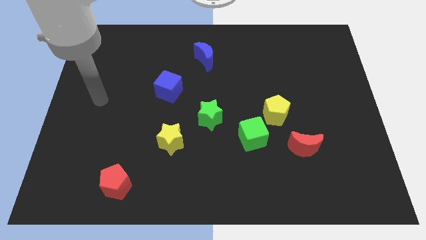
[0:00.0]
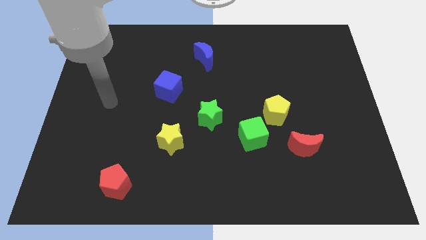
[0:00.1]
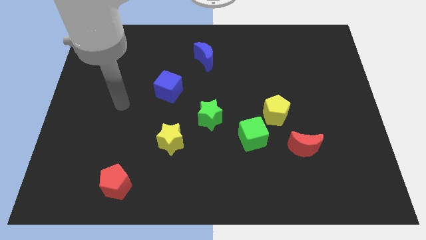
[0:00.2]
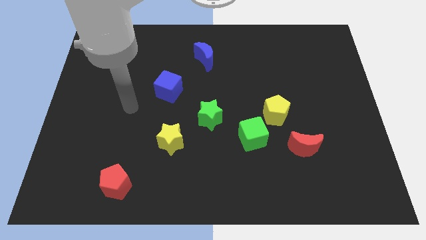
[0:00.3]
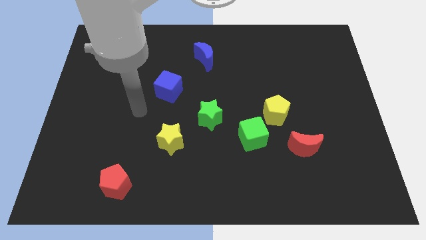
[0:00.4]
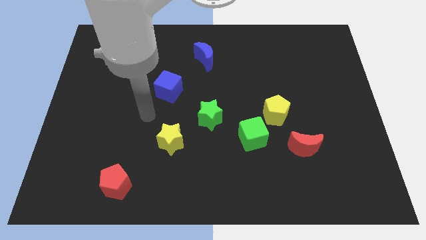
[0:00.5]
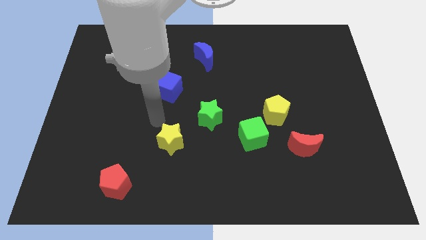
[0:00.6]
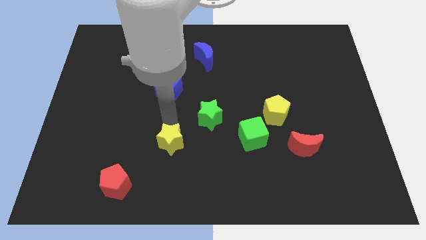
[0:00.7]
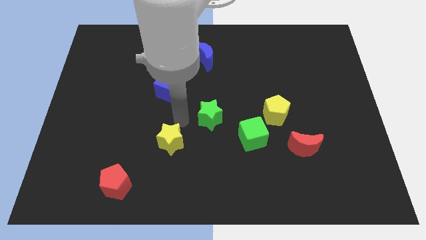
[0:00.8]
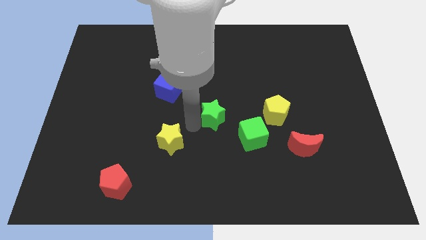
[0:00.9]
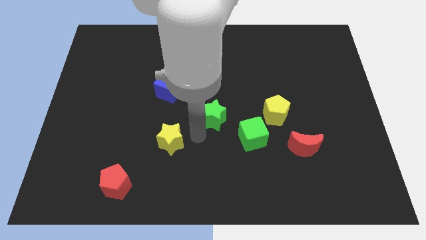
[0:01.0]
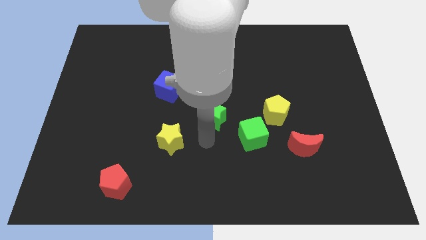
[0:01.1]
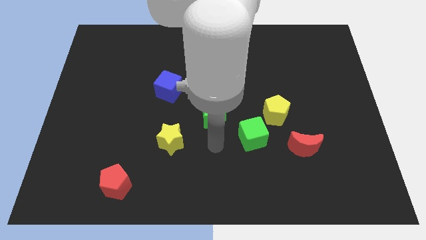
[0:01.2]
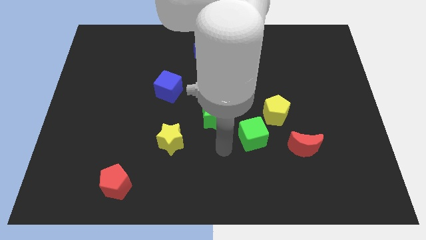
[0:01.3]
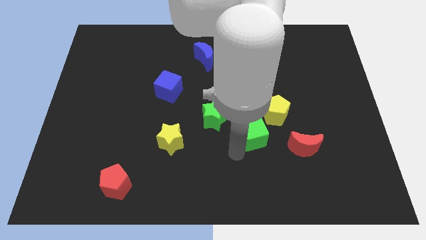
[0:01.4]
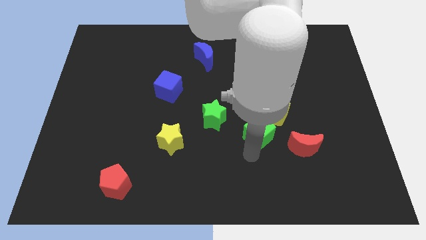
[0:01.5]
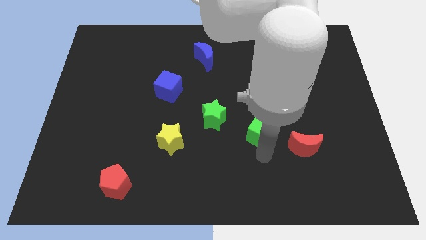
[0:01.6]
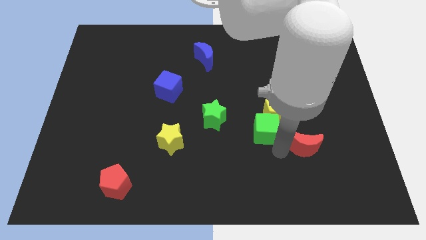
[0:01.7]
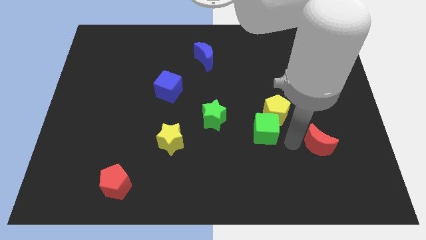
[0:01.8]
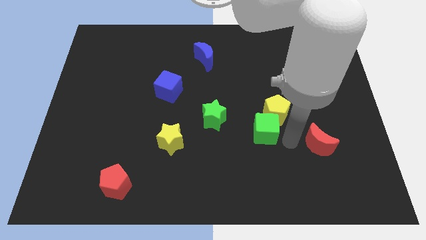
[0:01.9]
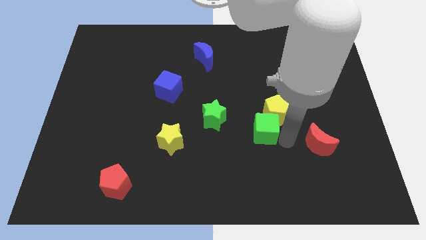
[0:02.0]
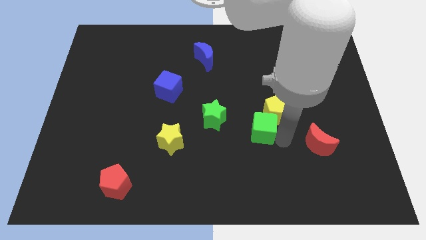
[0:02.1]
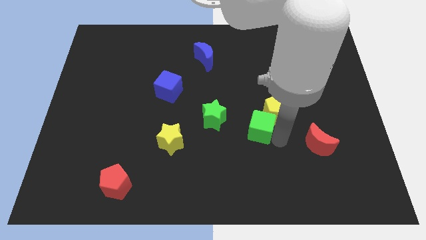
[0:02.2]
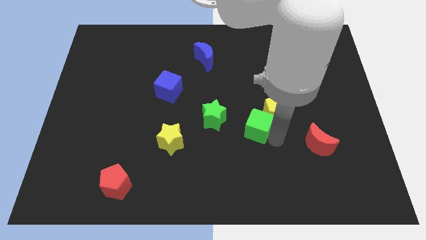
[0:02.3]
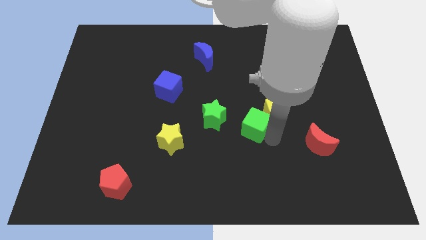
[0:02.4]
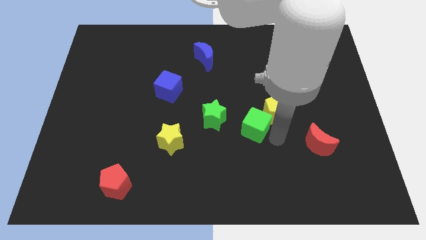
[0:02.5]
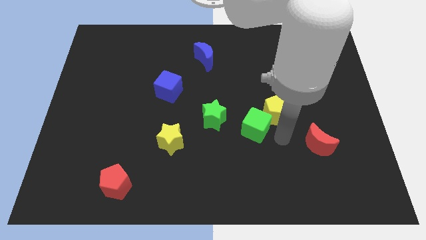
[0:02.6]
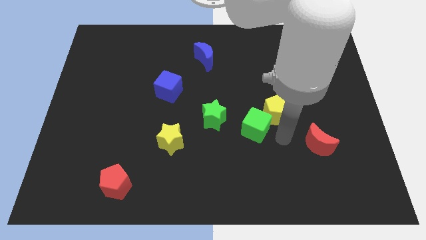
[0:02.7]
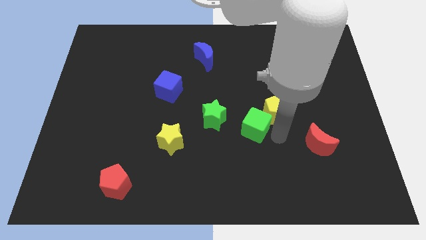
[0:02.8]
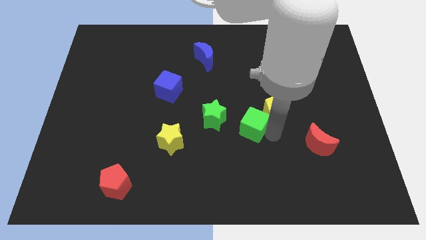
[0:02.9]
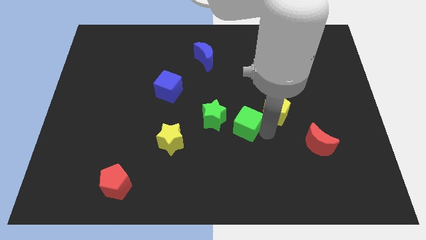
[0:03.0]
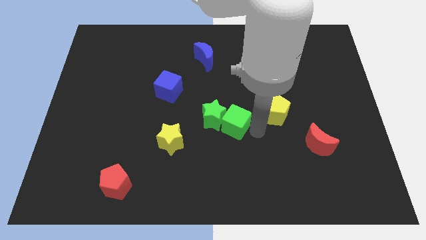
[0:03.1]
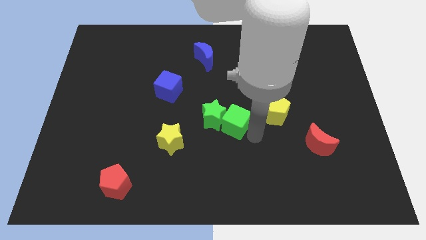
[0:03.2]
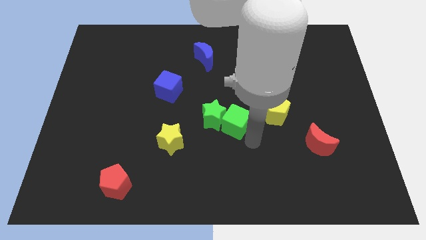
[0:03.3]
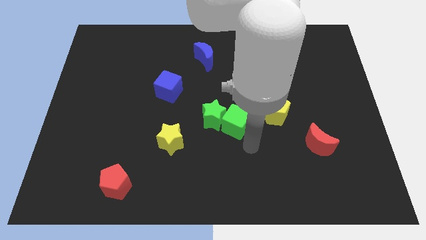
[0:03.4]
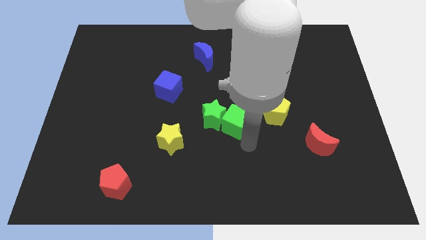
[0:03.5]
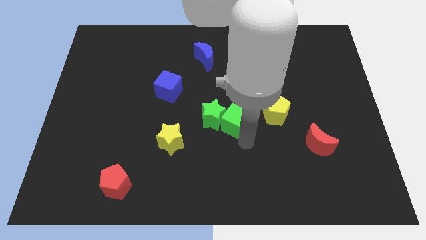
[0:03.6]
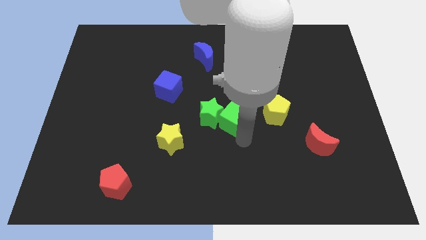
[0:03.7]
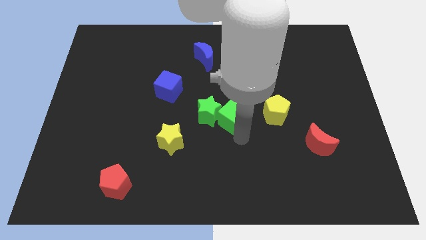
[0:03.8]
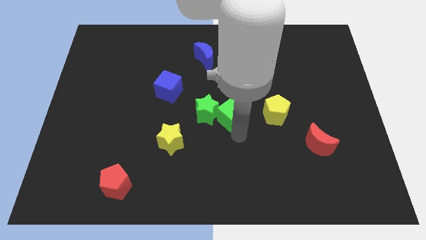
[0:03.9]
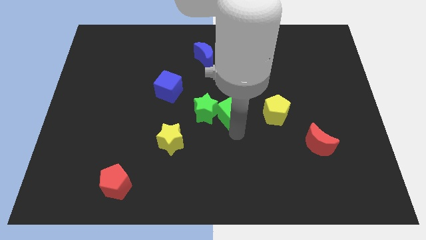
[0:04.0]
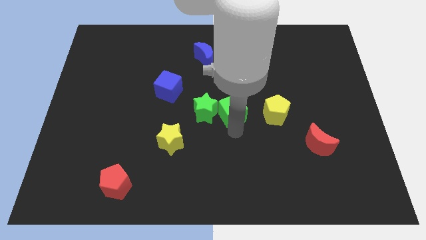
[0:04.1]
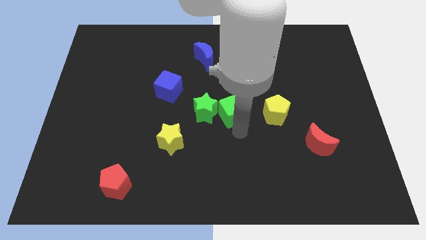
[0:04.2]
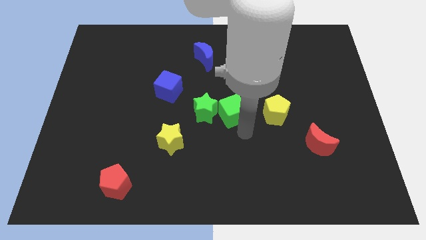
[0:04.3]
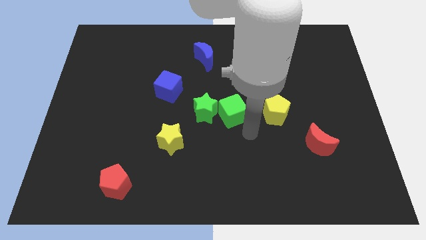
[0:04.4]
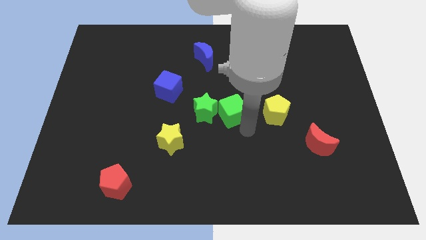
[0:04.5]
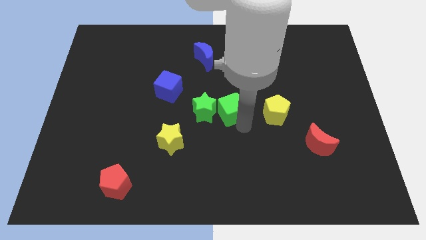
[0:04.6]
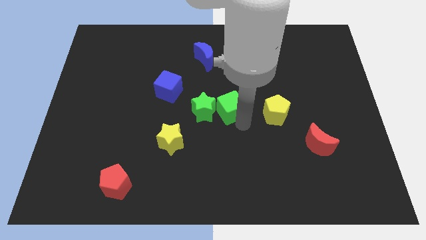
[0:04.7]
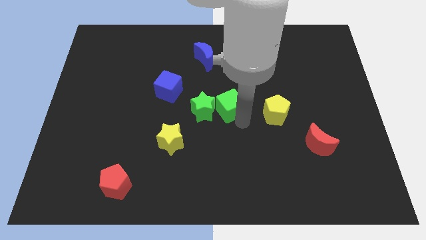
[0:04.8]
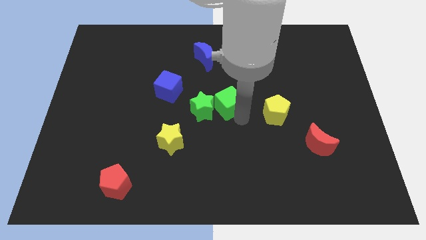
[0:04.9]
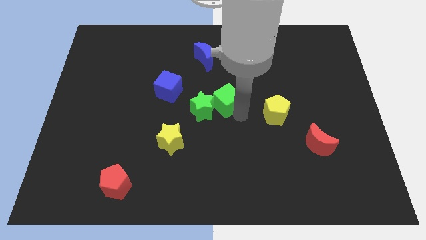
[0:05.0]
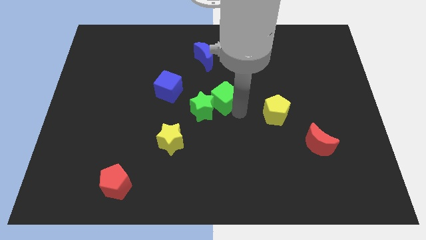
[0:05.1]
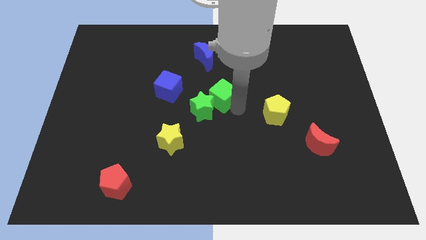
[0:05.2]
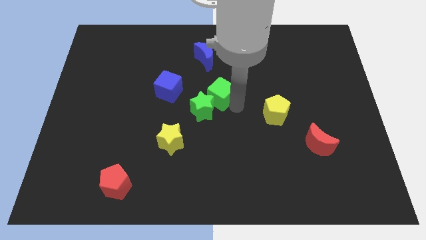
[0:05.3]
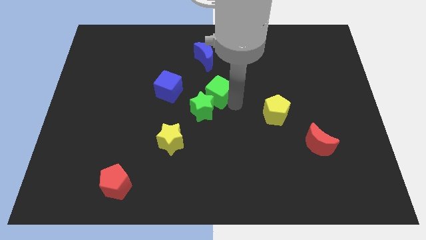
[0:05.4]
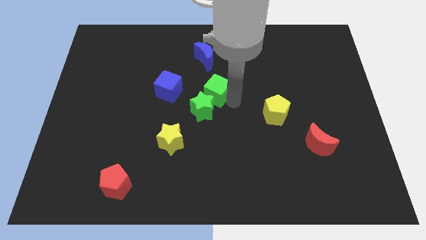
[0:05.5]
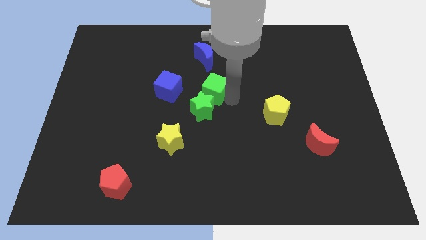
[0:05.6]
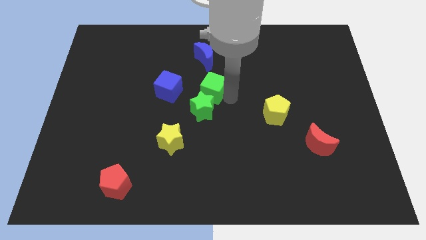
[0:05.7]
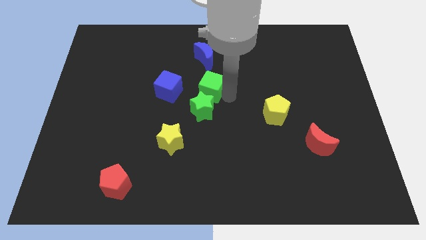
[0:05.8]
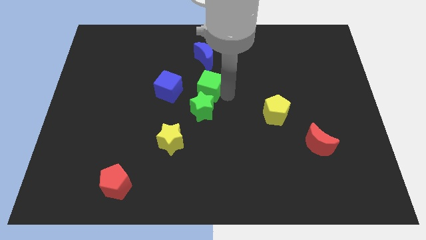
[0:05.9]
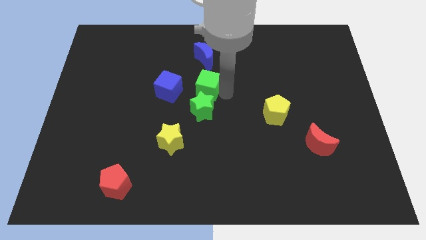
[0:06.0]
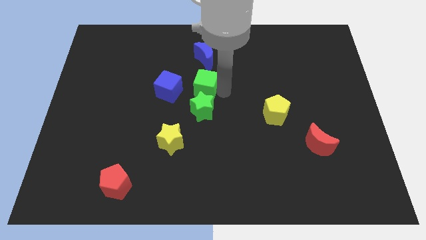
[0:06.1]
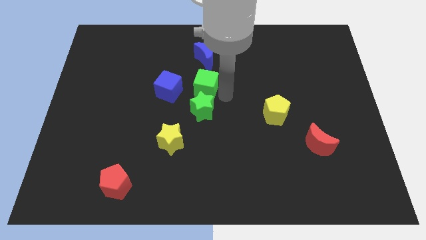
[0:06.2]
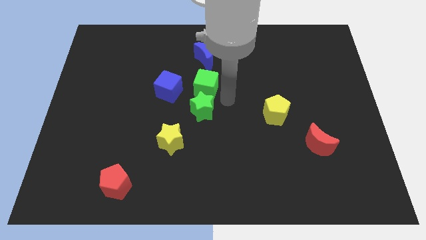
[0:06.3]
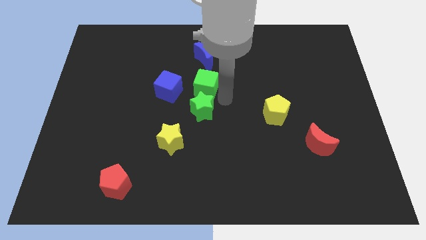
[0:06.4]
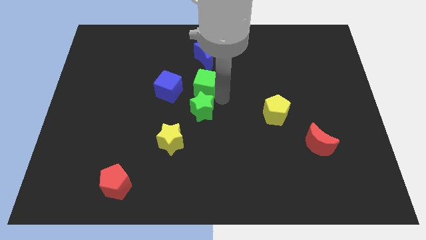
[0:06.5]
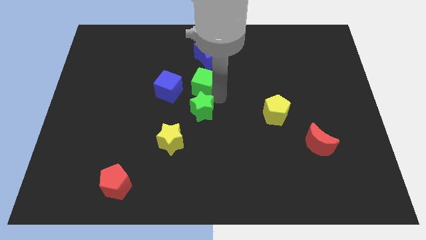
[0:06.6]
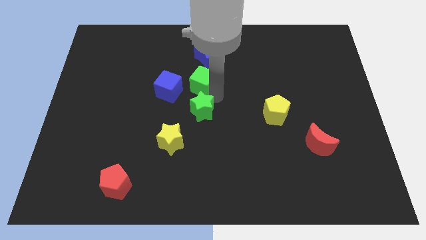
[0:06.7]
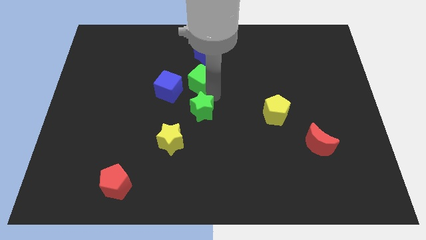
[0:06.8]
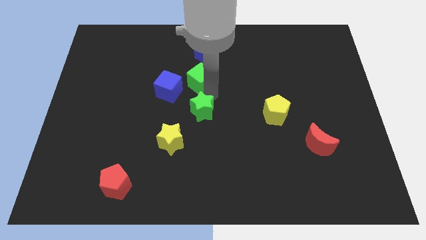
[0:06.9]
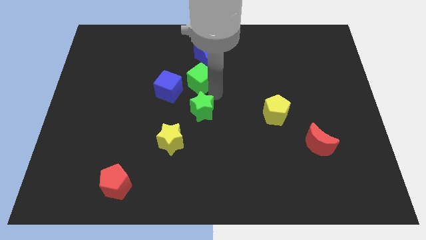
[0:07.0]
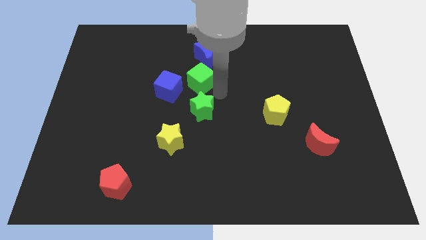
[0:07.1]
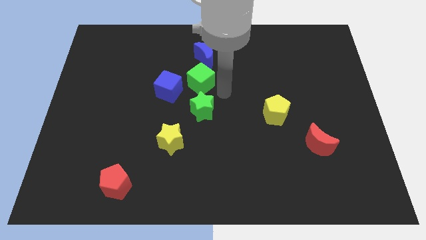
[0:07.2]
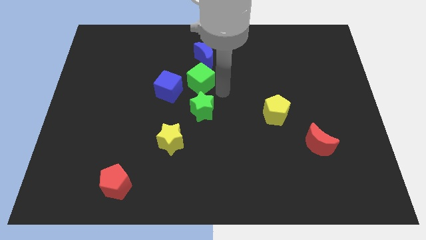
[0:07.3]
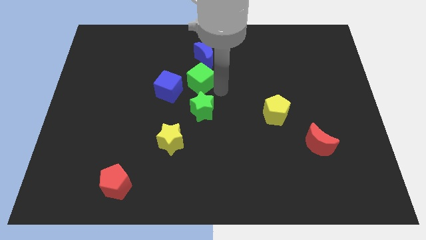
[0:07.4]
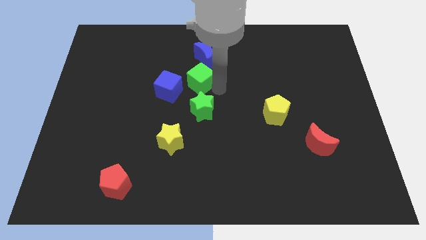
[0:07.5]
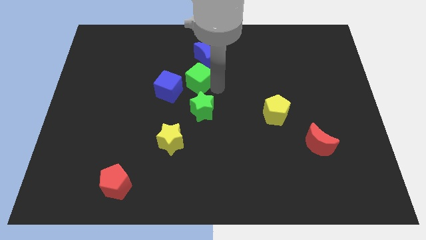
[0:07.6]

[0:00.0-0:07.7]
move the green cube up and left diagonally
